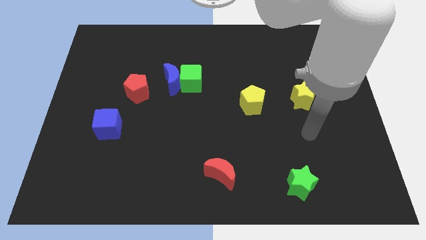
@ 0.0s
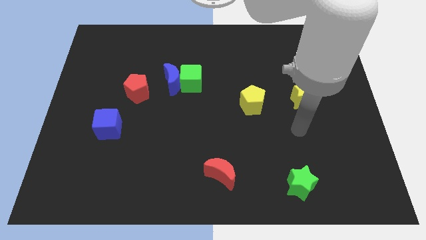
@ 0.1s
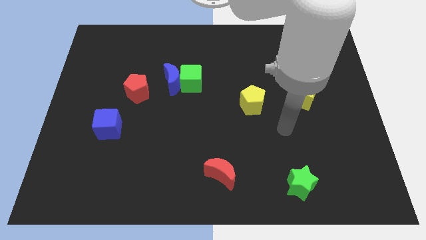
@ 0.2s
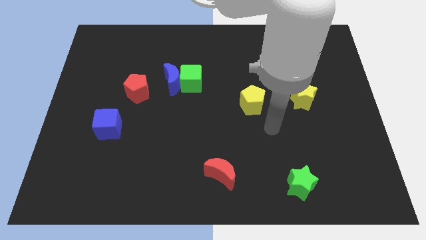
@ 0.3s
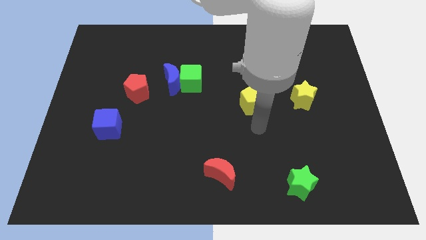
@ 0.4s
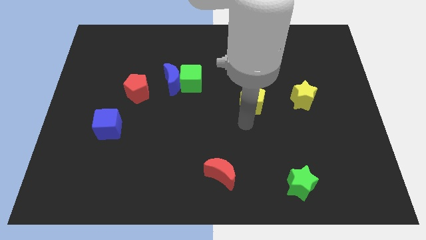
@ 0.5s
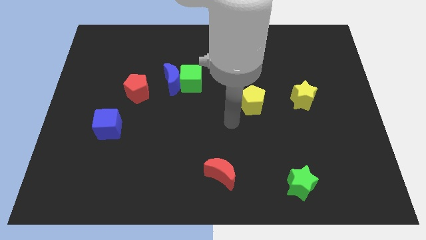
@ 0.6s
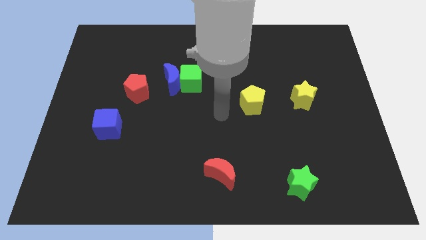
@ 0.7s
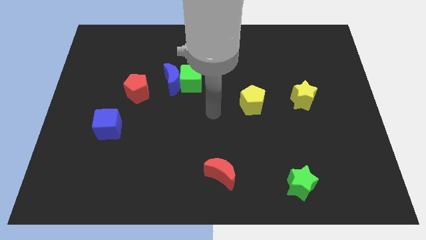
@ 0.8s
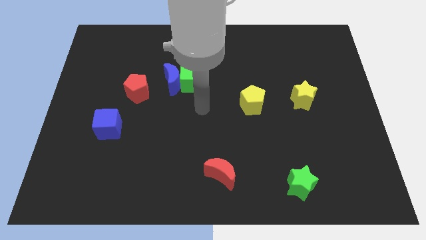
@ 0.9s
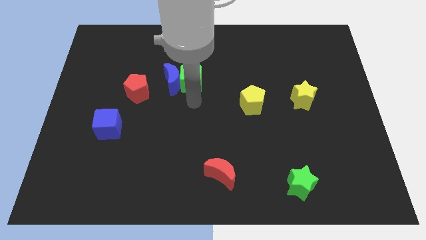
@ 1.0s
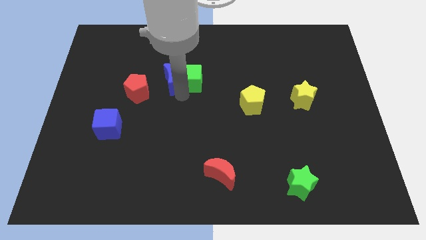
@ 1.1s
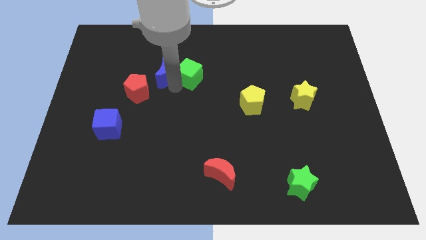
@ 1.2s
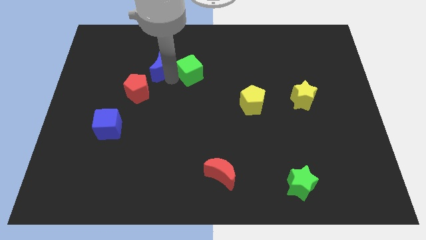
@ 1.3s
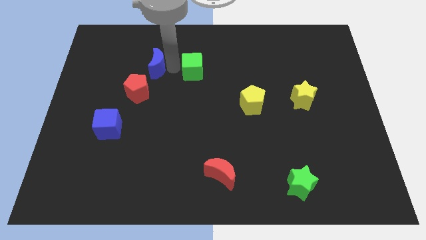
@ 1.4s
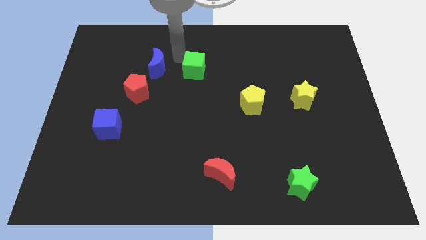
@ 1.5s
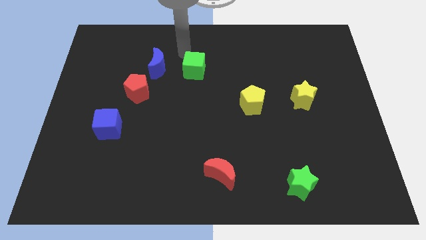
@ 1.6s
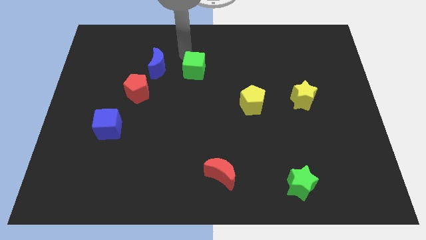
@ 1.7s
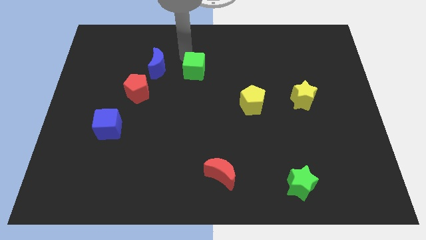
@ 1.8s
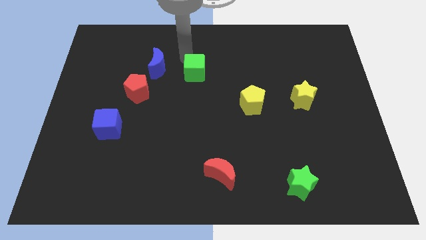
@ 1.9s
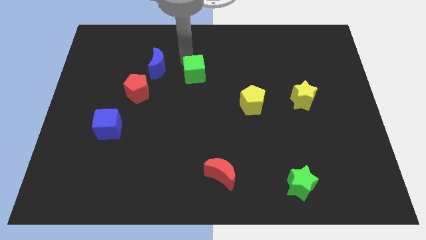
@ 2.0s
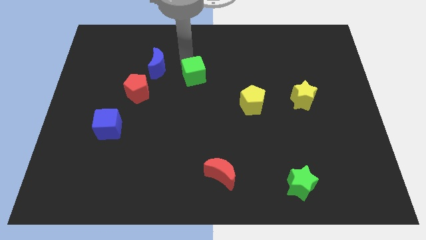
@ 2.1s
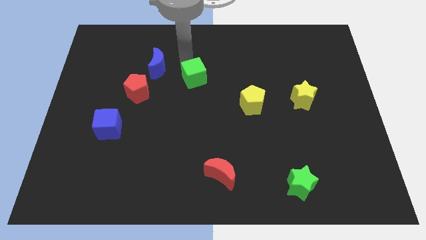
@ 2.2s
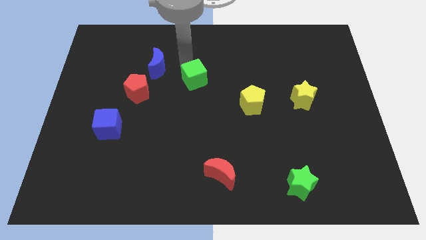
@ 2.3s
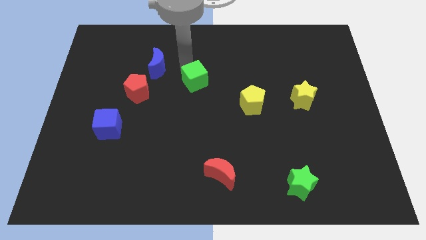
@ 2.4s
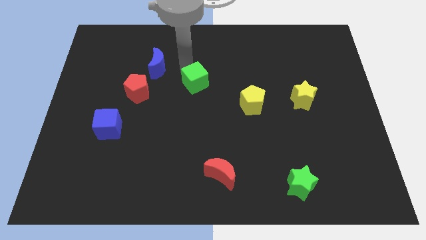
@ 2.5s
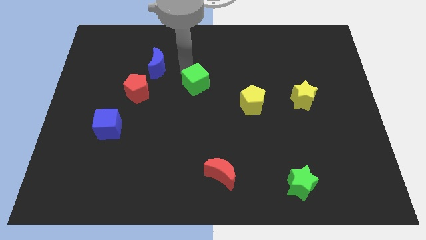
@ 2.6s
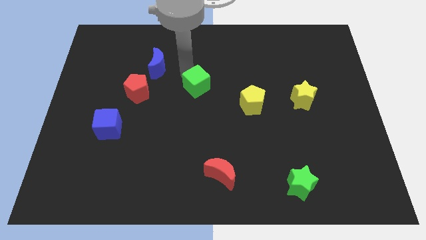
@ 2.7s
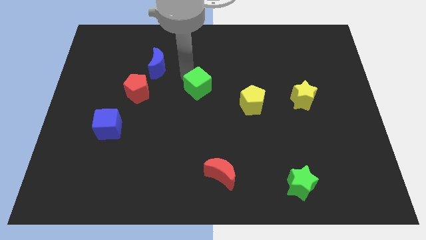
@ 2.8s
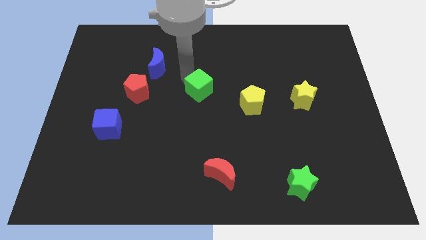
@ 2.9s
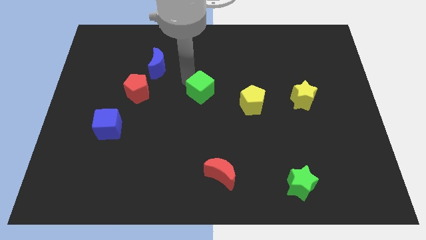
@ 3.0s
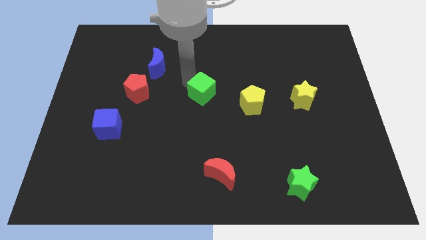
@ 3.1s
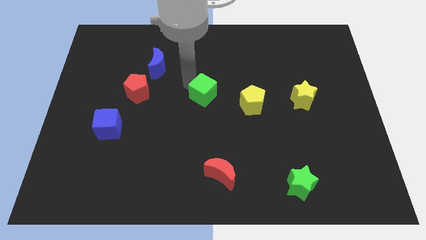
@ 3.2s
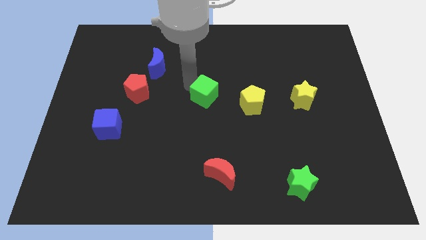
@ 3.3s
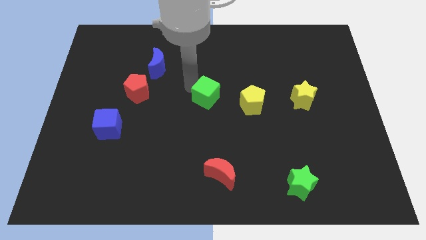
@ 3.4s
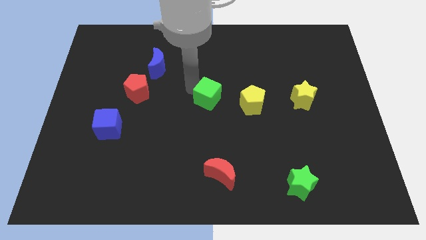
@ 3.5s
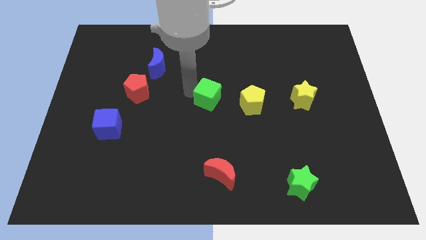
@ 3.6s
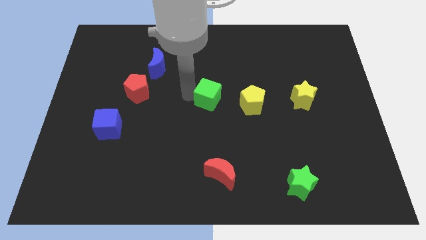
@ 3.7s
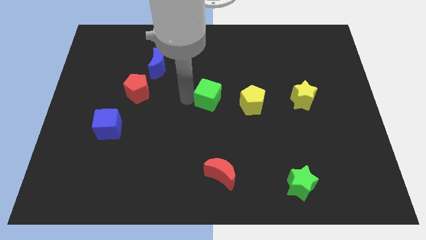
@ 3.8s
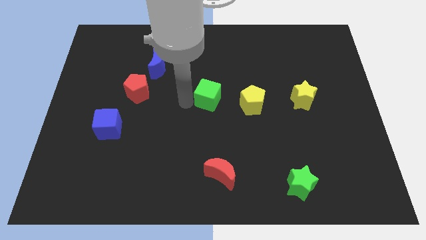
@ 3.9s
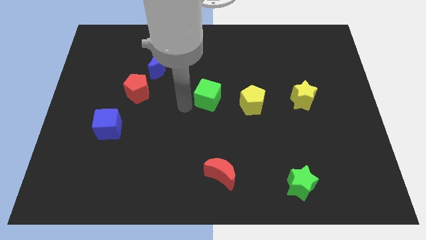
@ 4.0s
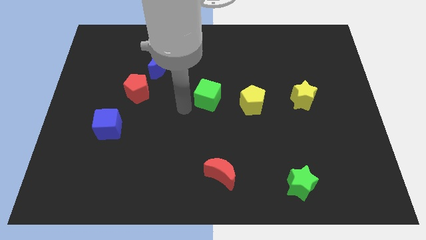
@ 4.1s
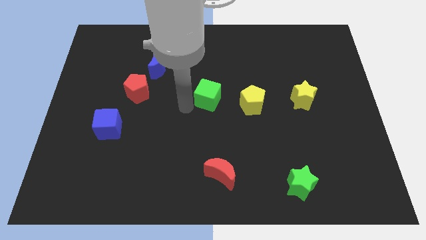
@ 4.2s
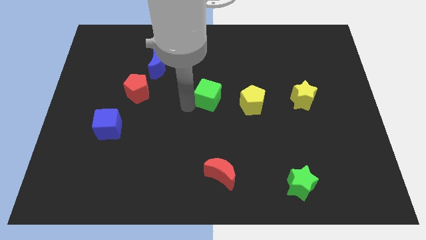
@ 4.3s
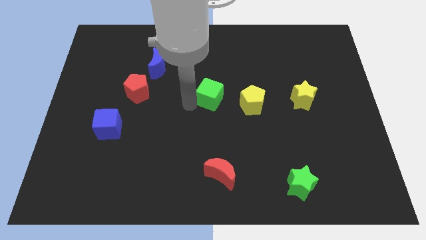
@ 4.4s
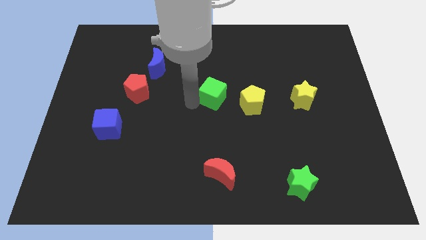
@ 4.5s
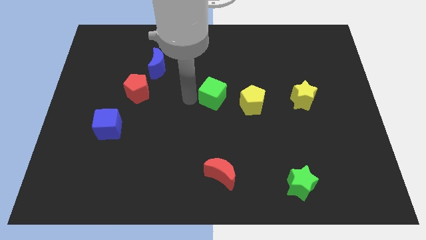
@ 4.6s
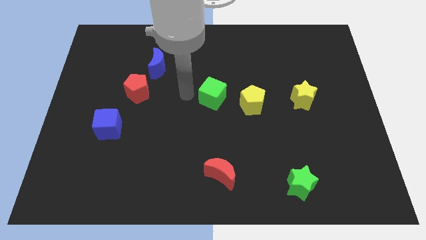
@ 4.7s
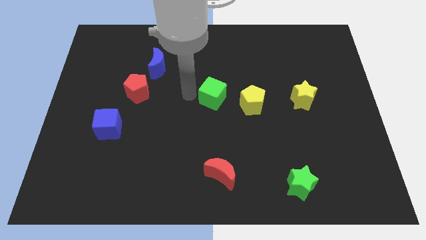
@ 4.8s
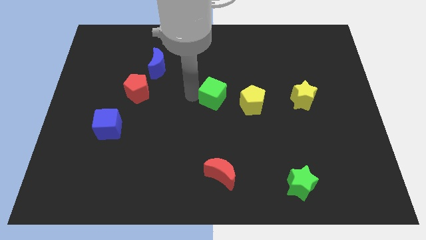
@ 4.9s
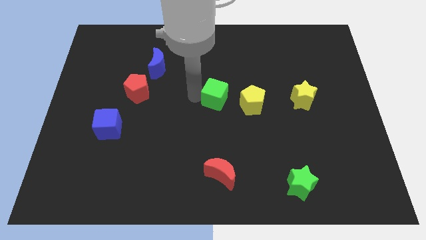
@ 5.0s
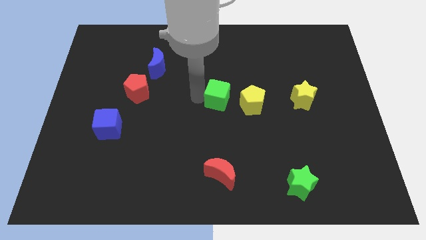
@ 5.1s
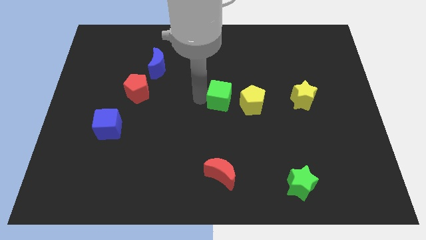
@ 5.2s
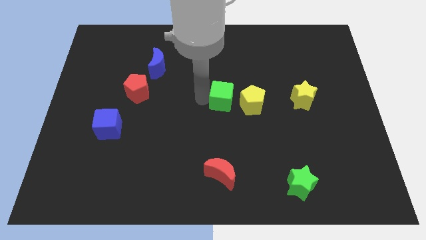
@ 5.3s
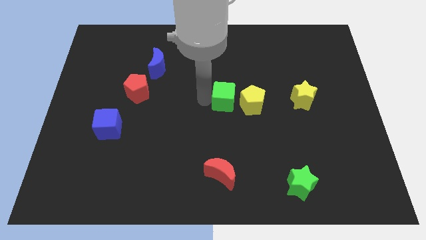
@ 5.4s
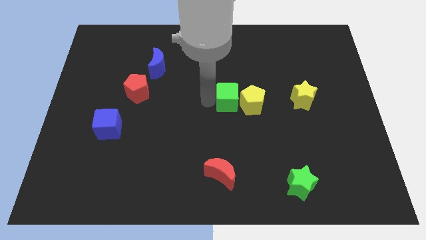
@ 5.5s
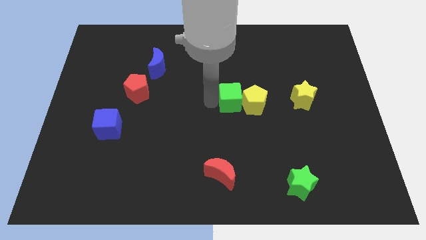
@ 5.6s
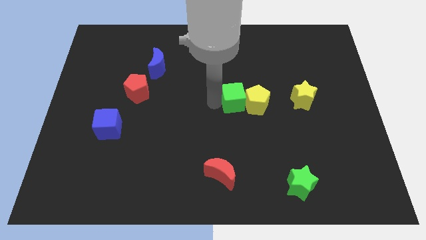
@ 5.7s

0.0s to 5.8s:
put the green cube left of the yellow star

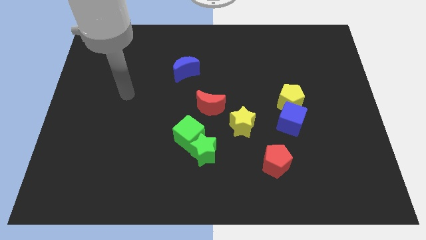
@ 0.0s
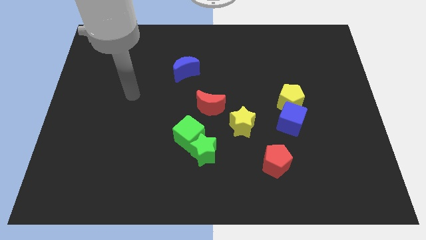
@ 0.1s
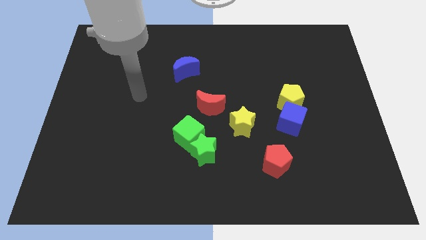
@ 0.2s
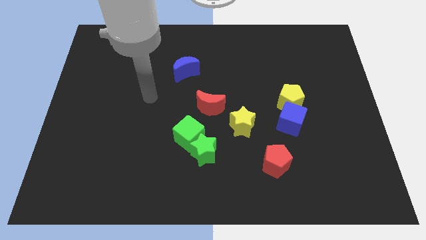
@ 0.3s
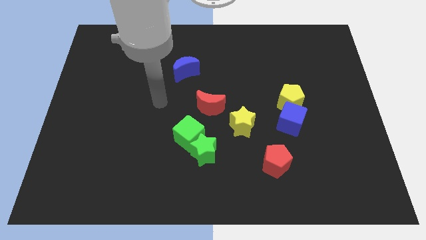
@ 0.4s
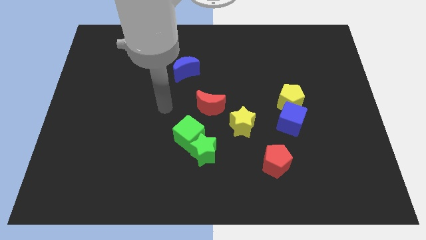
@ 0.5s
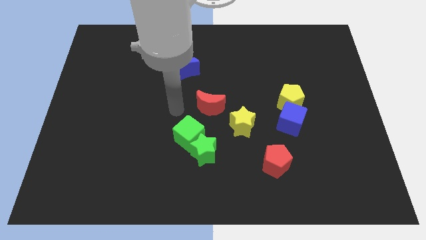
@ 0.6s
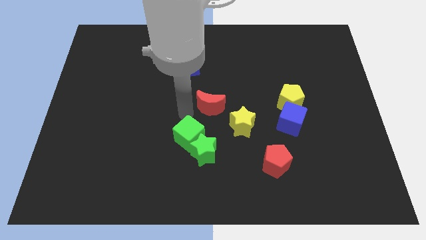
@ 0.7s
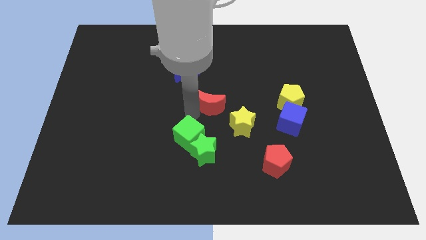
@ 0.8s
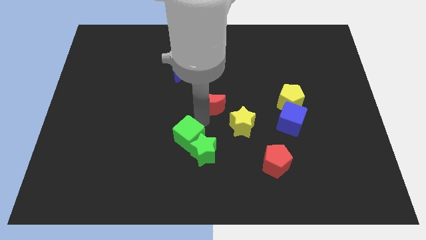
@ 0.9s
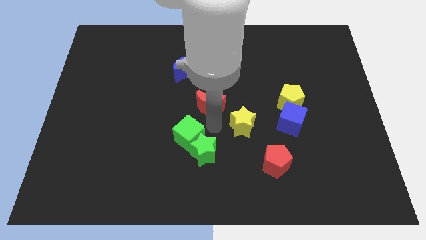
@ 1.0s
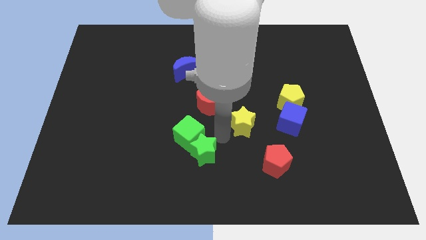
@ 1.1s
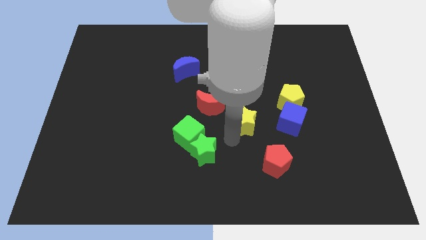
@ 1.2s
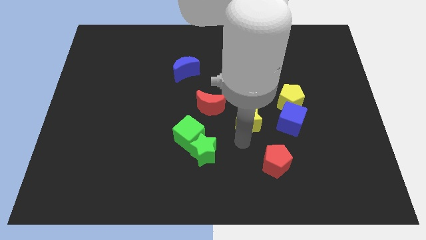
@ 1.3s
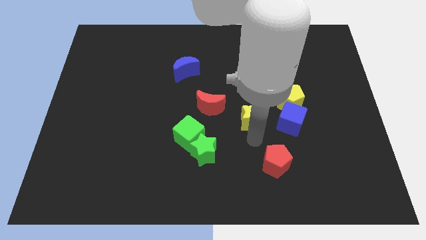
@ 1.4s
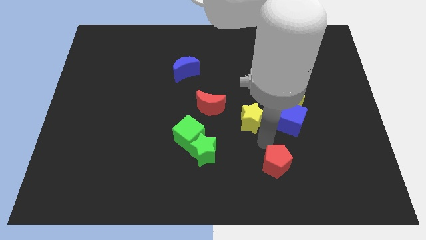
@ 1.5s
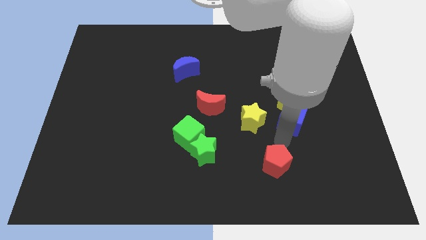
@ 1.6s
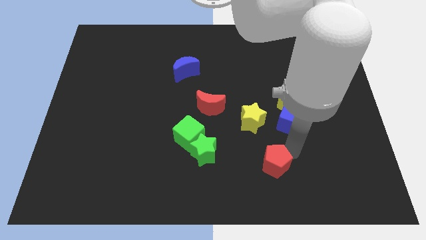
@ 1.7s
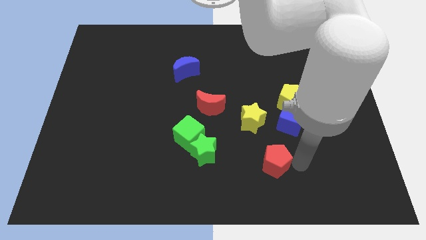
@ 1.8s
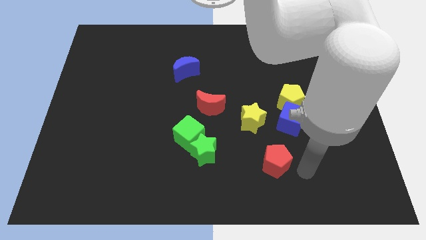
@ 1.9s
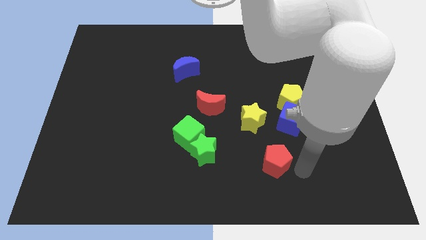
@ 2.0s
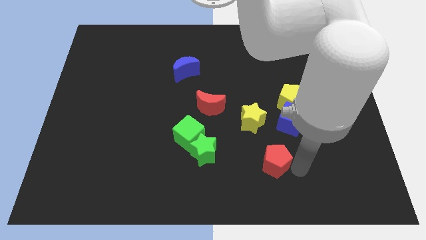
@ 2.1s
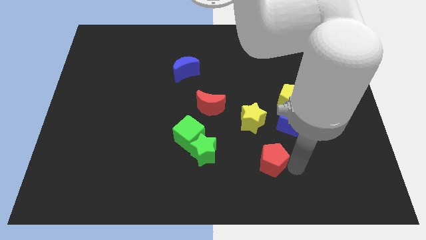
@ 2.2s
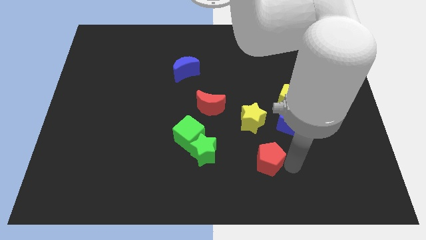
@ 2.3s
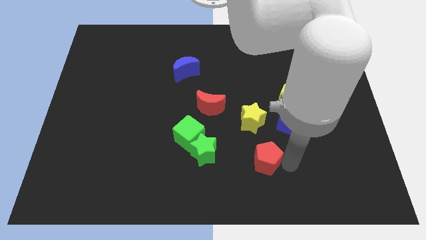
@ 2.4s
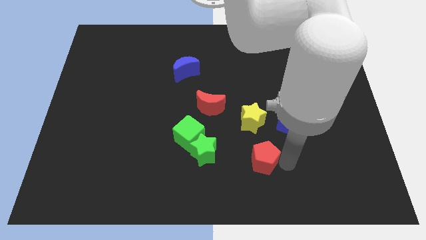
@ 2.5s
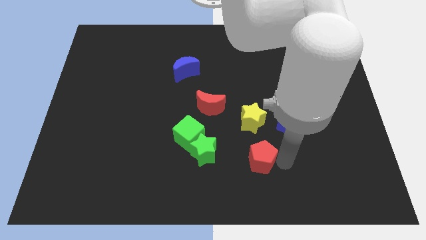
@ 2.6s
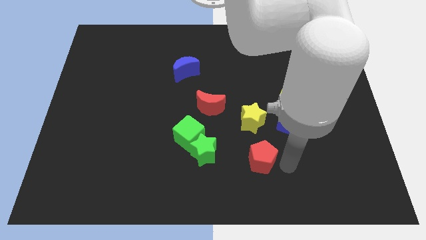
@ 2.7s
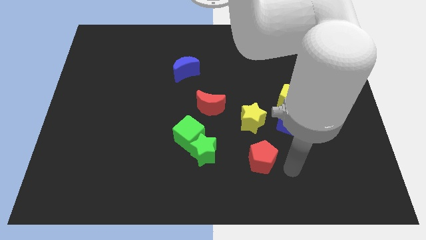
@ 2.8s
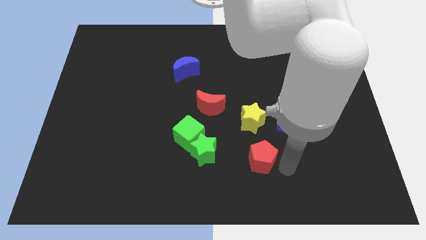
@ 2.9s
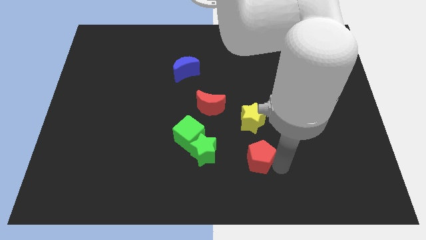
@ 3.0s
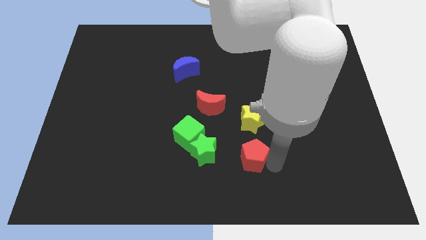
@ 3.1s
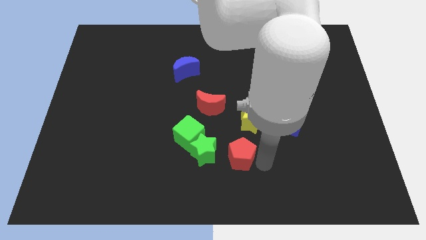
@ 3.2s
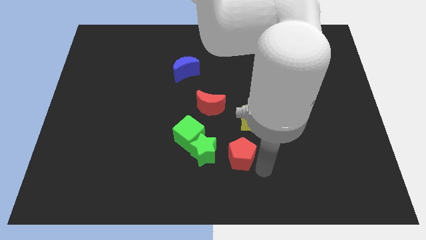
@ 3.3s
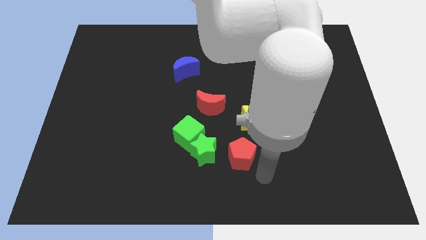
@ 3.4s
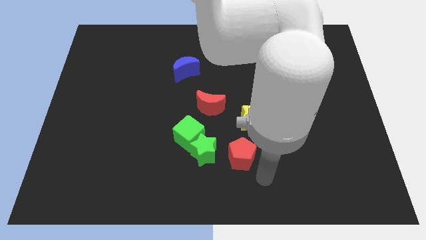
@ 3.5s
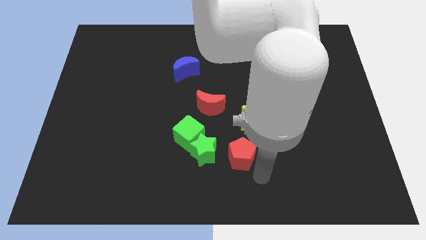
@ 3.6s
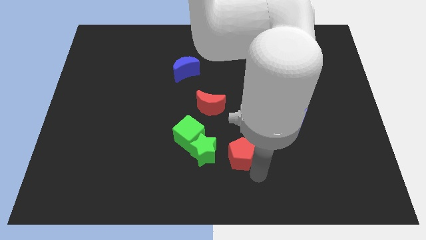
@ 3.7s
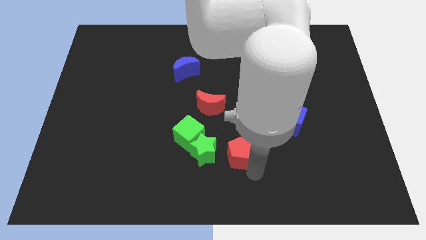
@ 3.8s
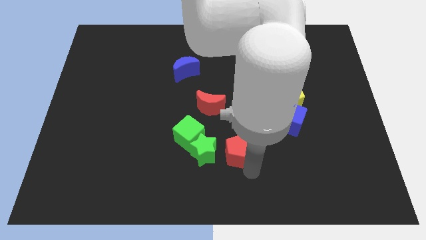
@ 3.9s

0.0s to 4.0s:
move the red pentagon to the bottom right of the green cube
